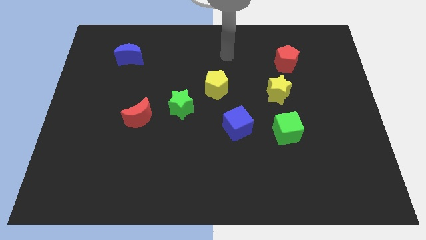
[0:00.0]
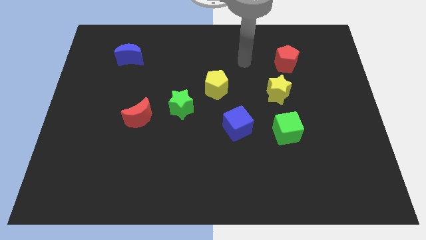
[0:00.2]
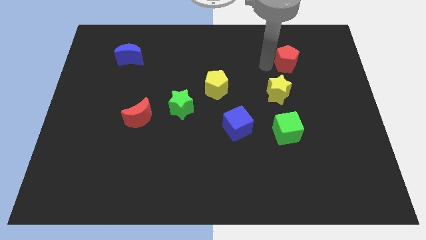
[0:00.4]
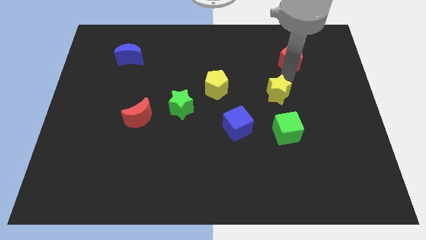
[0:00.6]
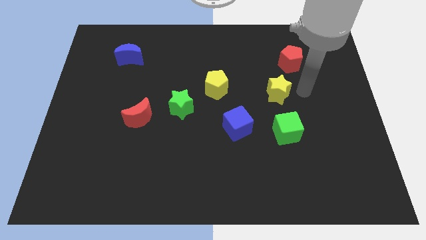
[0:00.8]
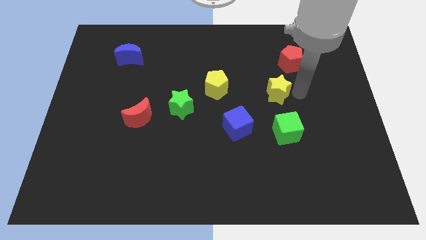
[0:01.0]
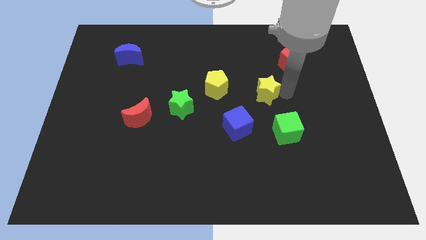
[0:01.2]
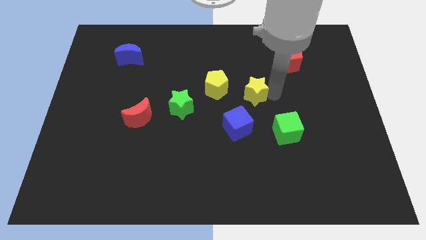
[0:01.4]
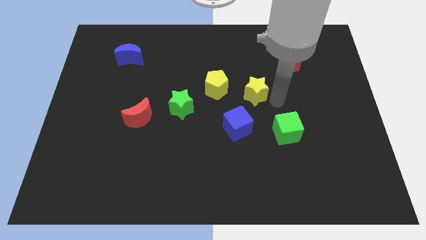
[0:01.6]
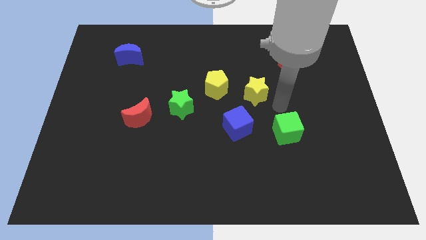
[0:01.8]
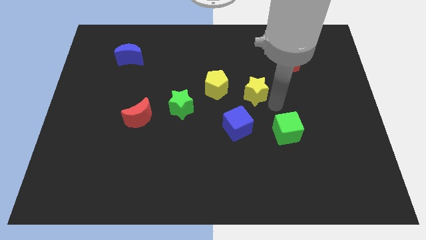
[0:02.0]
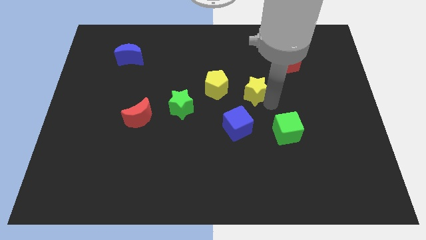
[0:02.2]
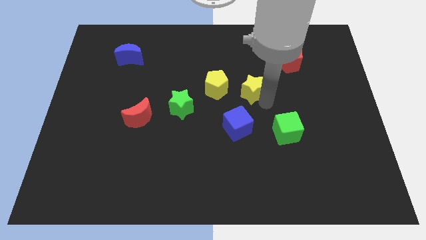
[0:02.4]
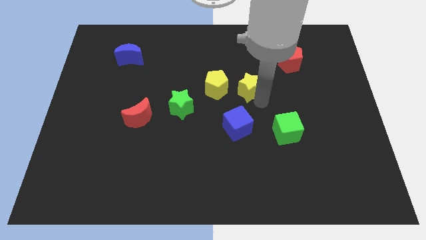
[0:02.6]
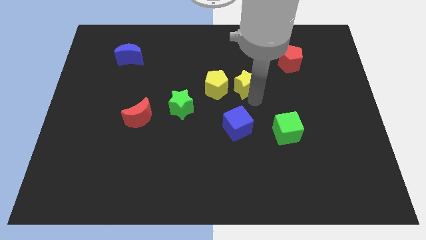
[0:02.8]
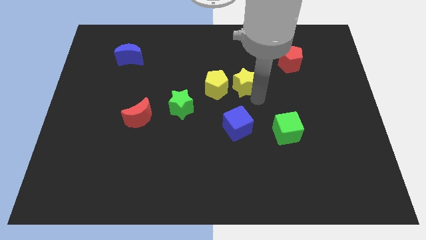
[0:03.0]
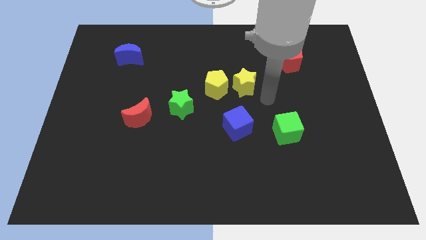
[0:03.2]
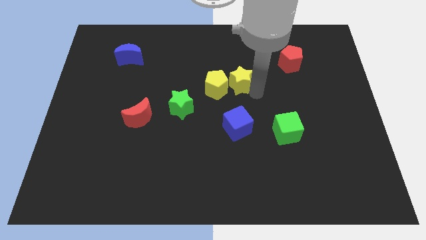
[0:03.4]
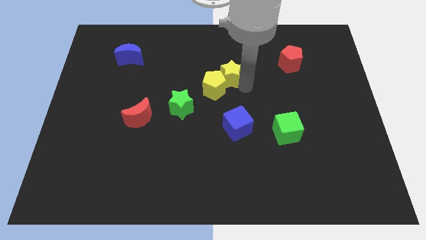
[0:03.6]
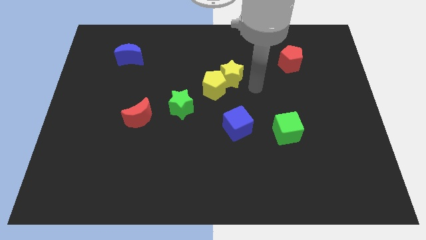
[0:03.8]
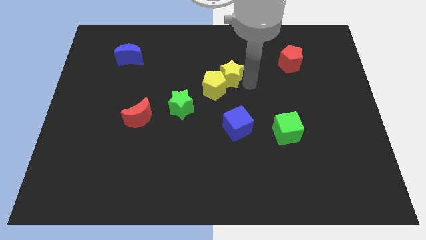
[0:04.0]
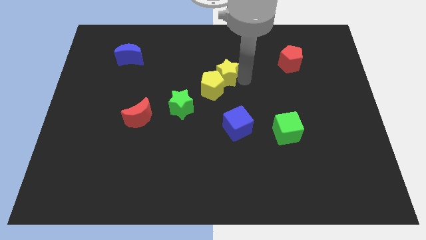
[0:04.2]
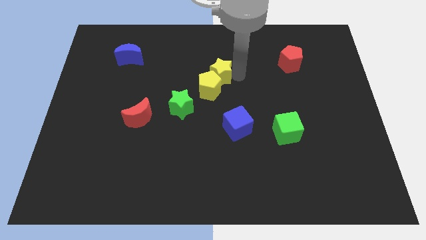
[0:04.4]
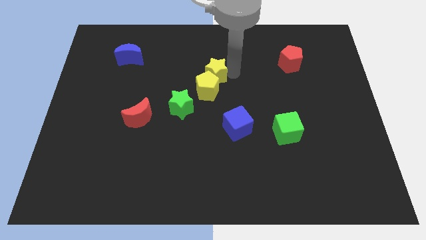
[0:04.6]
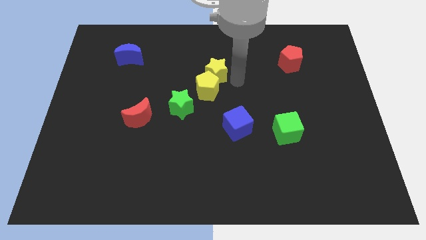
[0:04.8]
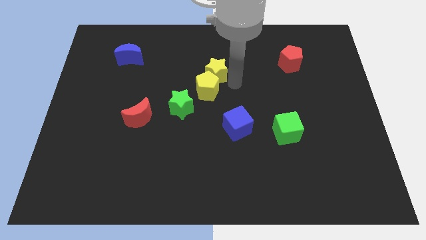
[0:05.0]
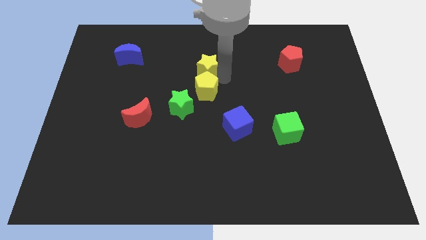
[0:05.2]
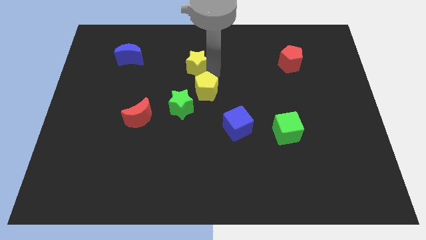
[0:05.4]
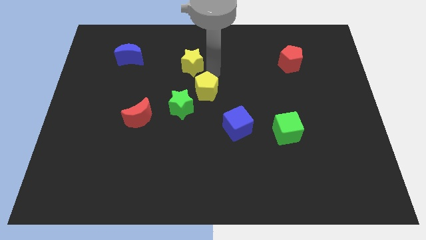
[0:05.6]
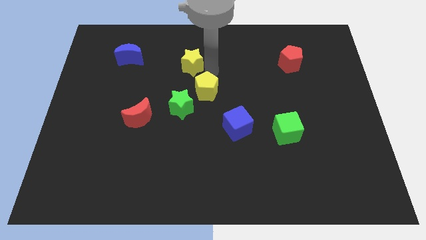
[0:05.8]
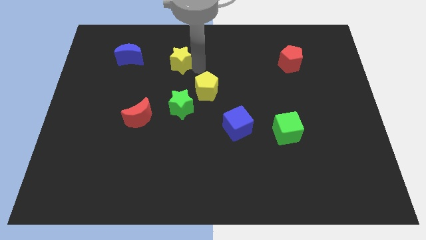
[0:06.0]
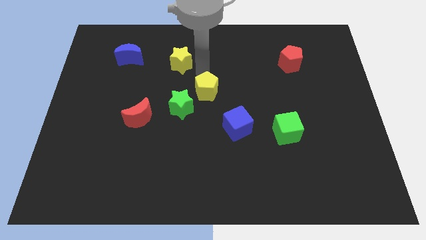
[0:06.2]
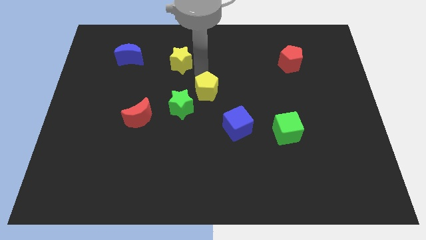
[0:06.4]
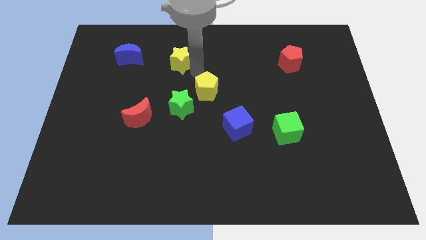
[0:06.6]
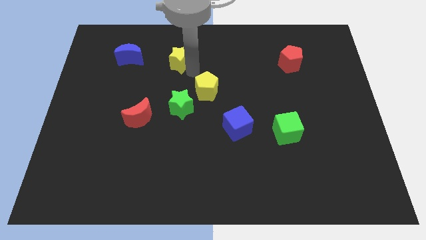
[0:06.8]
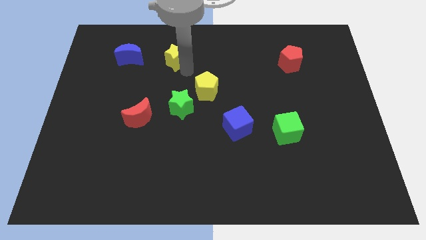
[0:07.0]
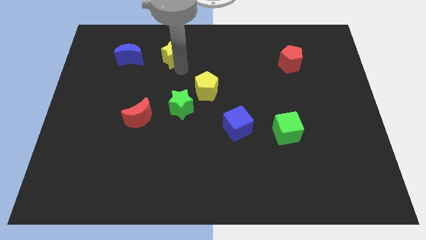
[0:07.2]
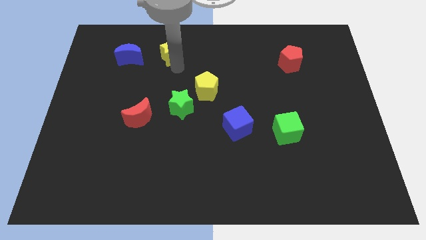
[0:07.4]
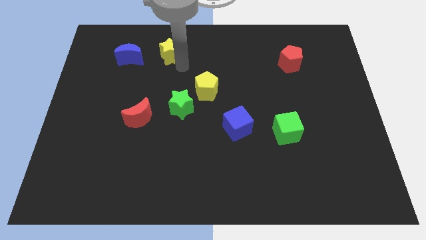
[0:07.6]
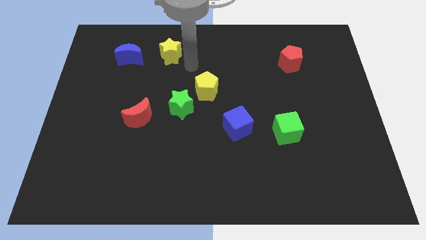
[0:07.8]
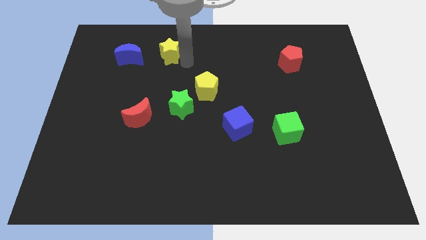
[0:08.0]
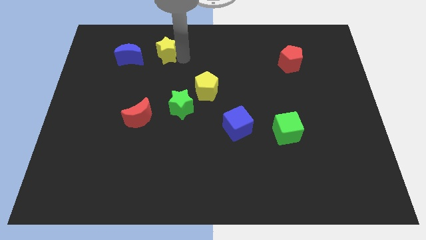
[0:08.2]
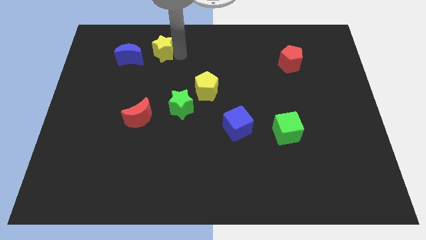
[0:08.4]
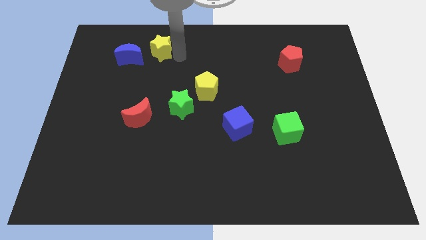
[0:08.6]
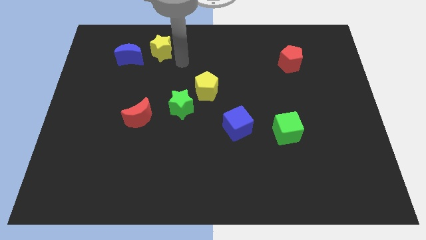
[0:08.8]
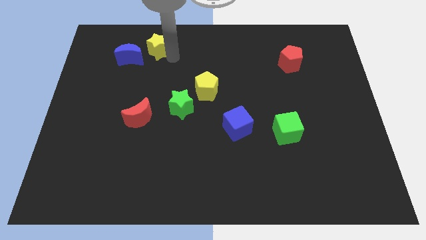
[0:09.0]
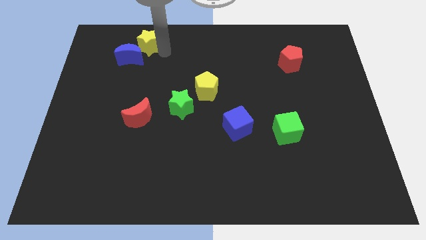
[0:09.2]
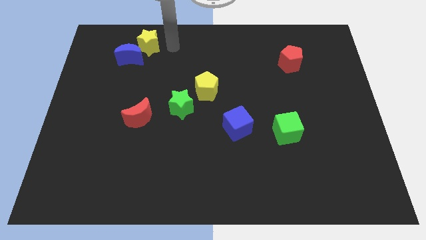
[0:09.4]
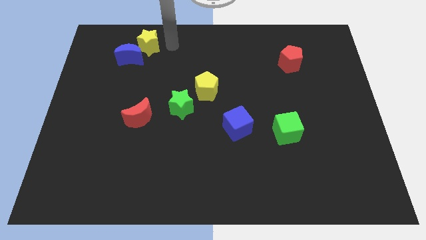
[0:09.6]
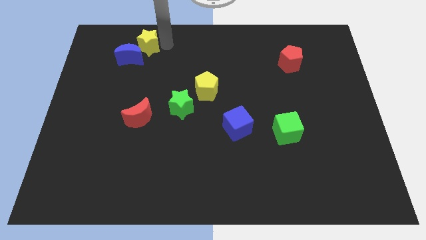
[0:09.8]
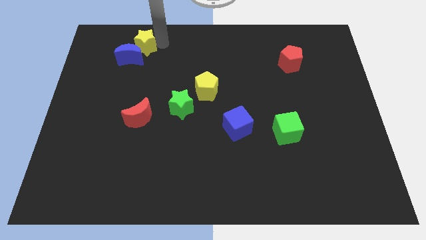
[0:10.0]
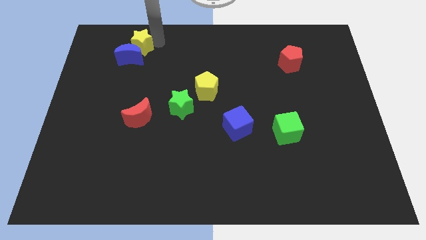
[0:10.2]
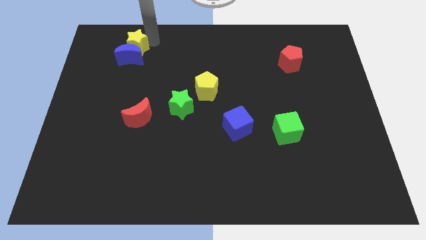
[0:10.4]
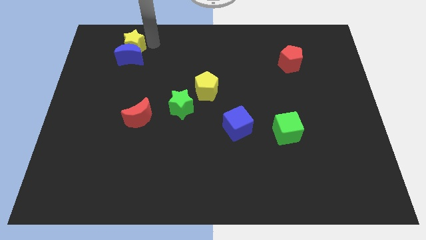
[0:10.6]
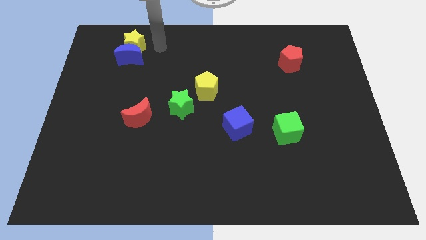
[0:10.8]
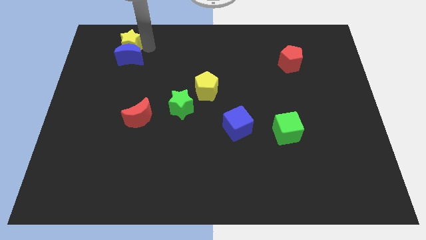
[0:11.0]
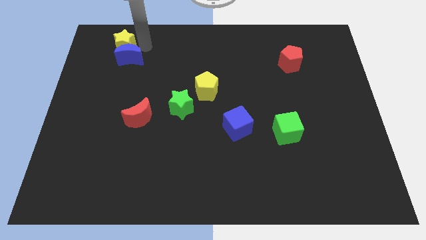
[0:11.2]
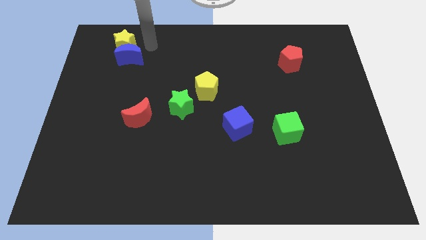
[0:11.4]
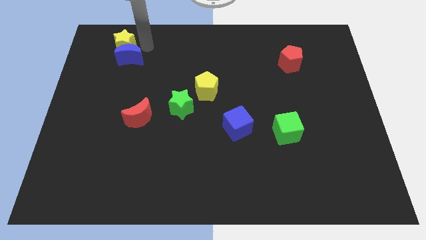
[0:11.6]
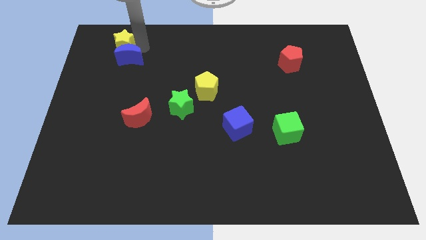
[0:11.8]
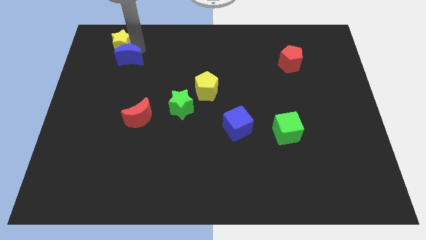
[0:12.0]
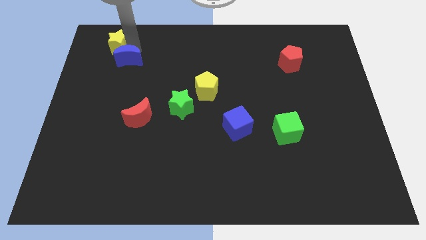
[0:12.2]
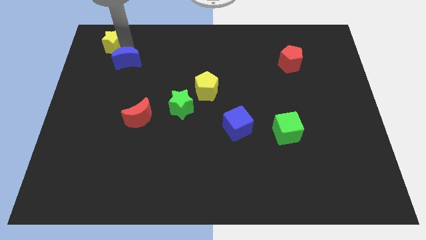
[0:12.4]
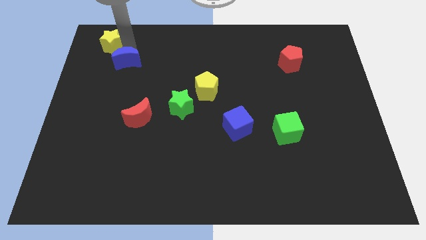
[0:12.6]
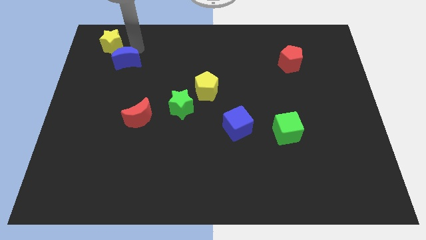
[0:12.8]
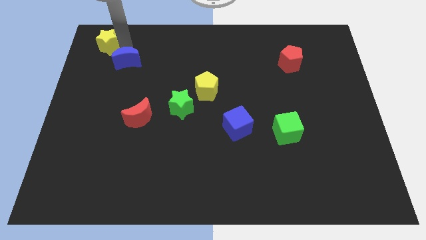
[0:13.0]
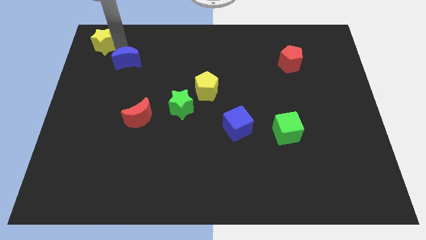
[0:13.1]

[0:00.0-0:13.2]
move the yellow star to the upper left corner

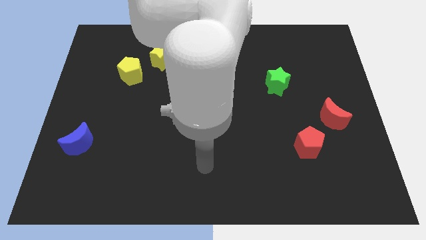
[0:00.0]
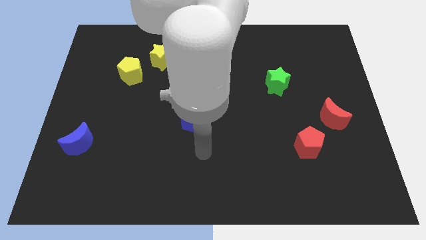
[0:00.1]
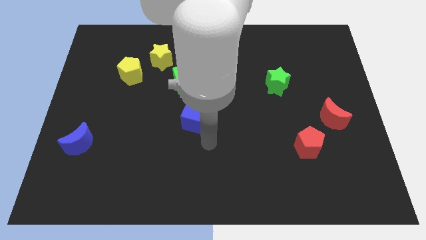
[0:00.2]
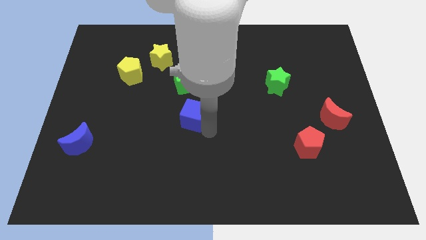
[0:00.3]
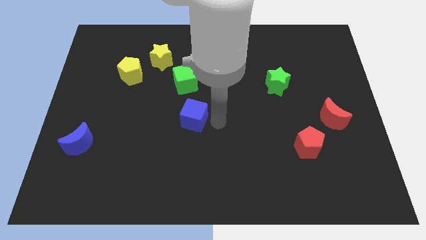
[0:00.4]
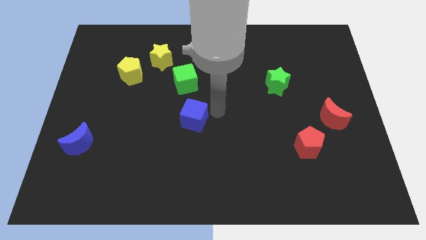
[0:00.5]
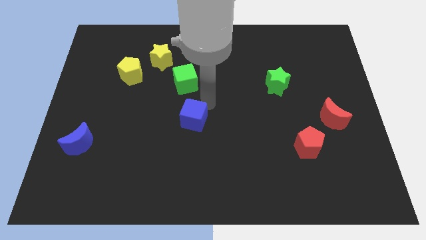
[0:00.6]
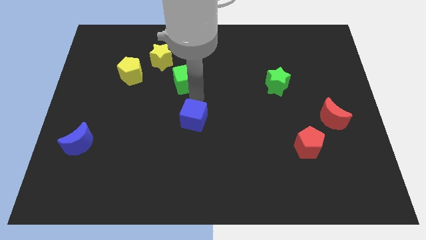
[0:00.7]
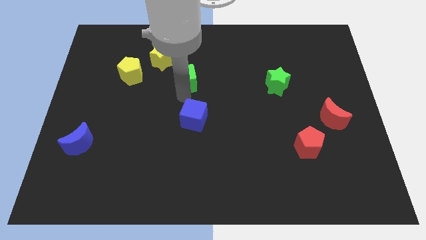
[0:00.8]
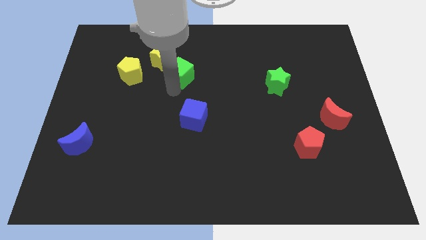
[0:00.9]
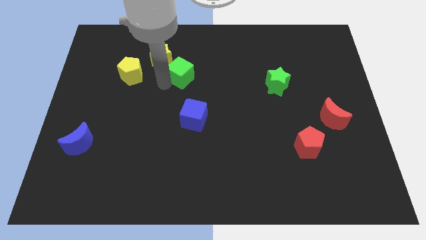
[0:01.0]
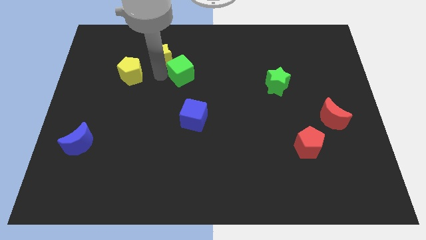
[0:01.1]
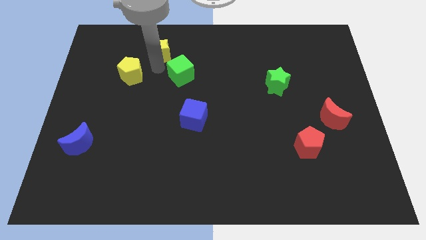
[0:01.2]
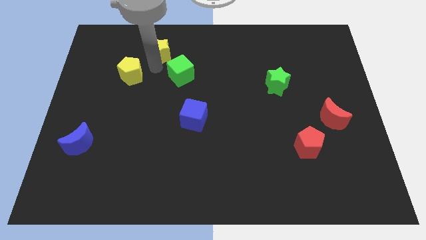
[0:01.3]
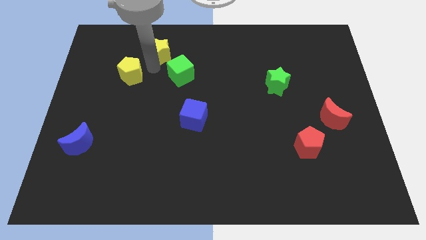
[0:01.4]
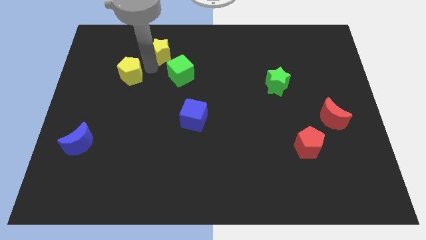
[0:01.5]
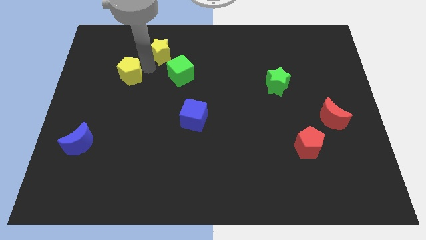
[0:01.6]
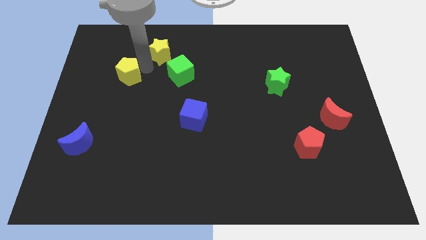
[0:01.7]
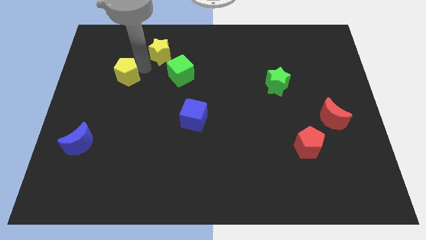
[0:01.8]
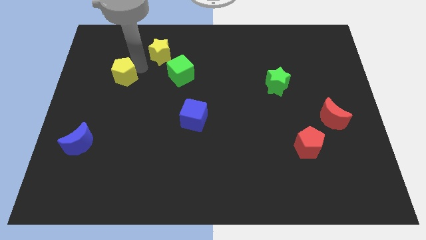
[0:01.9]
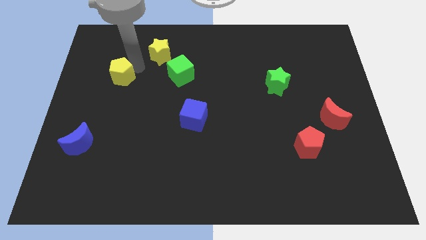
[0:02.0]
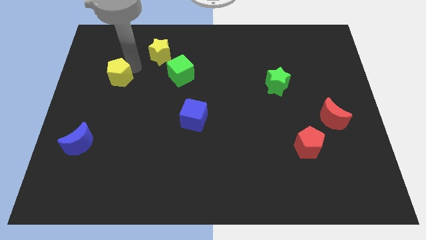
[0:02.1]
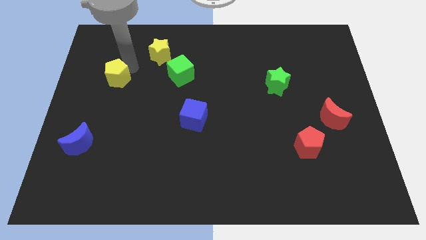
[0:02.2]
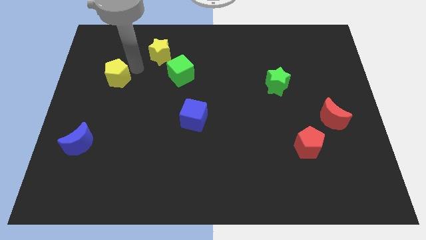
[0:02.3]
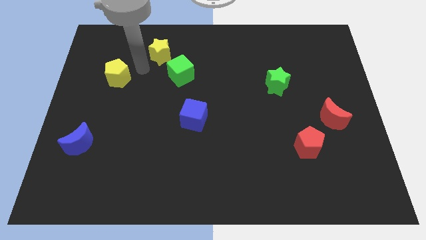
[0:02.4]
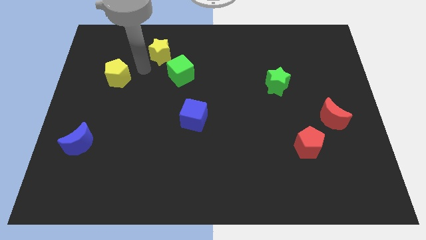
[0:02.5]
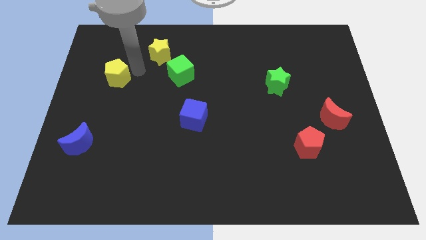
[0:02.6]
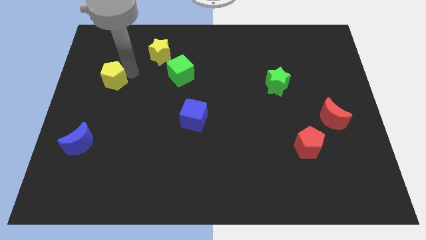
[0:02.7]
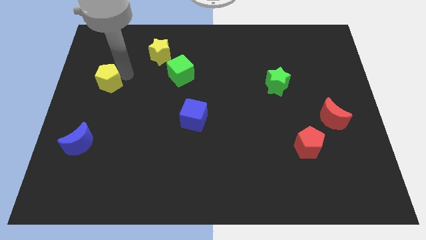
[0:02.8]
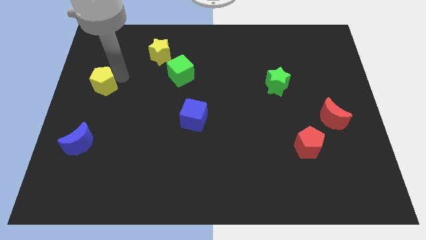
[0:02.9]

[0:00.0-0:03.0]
push the yellow pentagon to the left side
